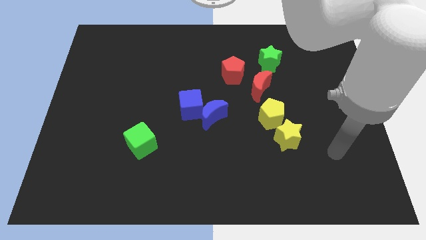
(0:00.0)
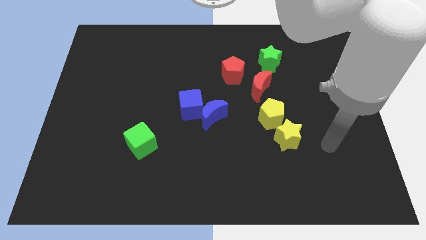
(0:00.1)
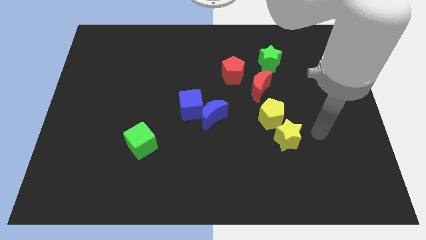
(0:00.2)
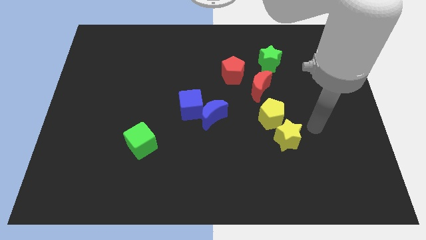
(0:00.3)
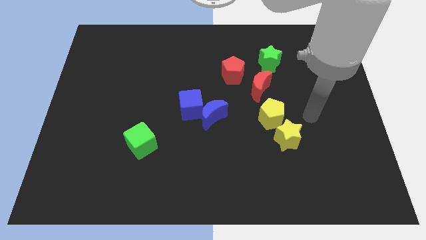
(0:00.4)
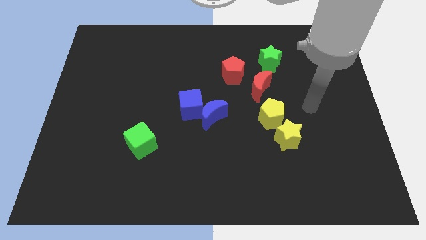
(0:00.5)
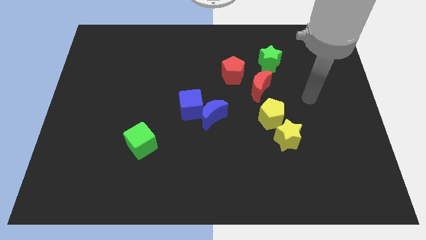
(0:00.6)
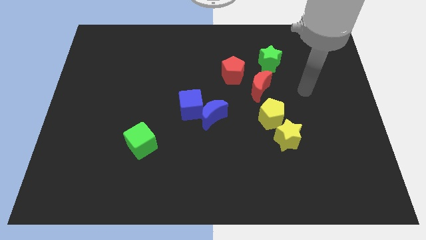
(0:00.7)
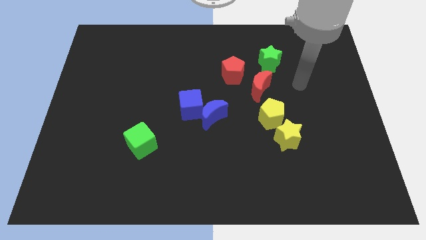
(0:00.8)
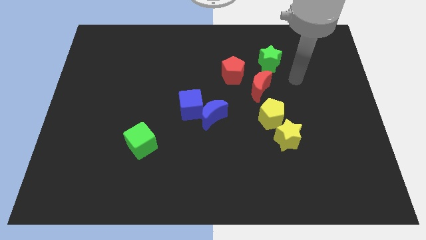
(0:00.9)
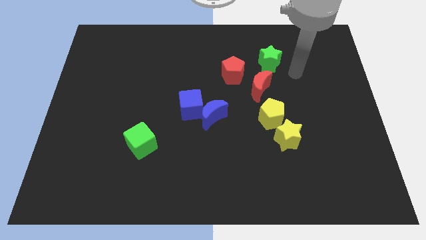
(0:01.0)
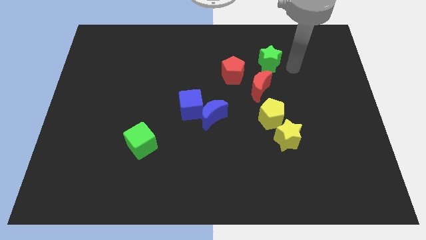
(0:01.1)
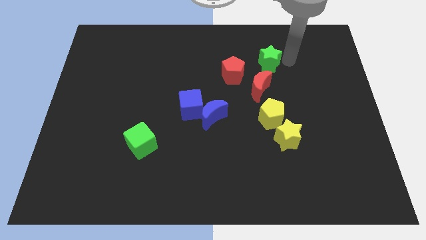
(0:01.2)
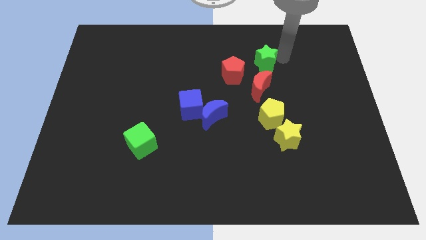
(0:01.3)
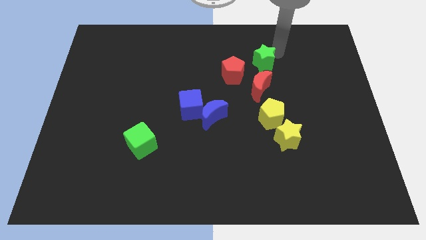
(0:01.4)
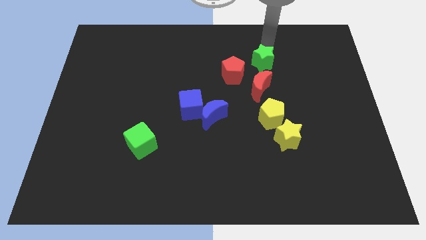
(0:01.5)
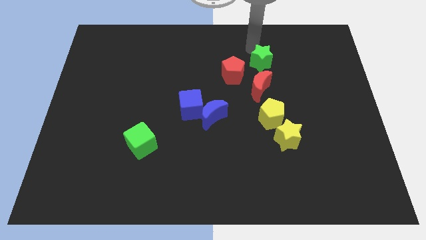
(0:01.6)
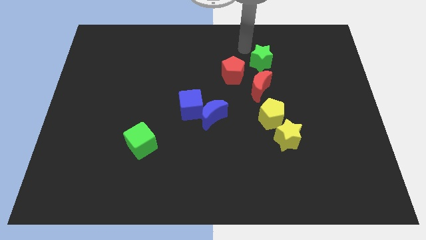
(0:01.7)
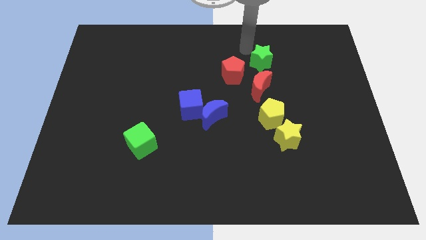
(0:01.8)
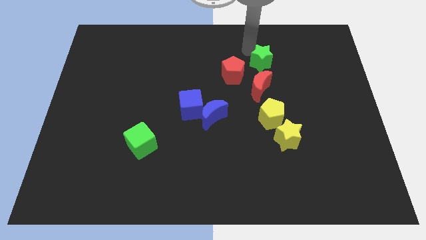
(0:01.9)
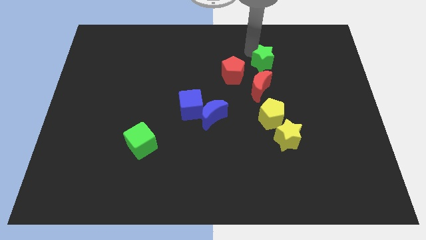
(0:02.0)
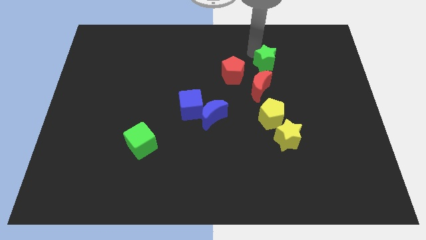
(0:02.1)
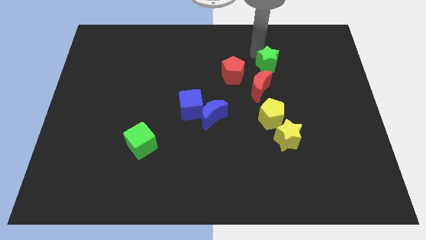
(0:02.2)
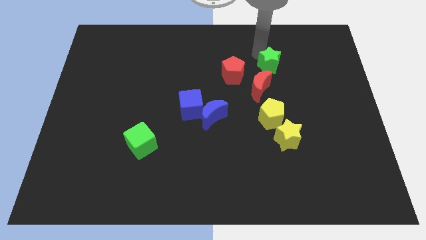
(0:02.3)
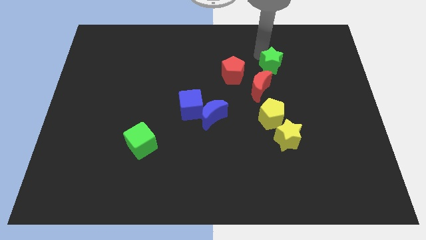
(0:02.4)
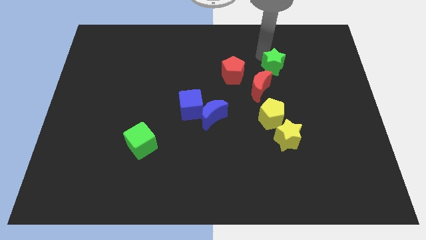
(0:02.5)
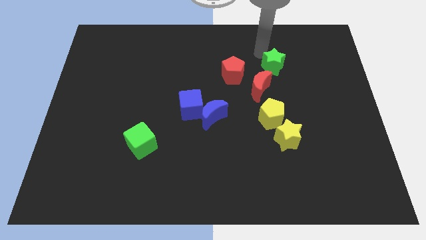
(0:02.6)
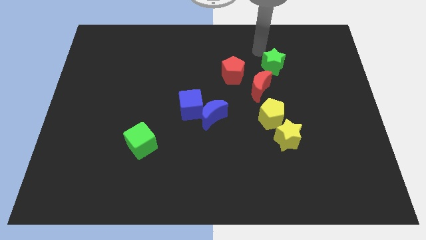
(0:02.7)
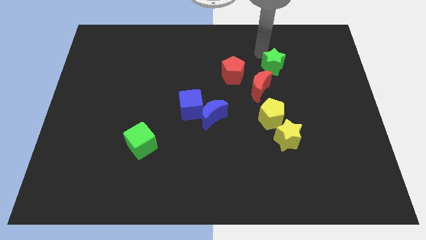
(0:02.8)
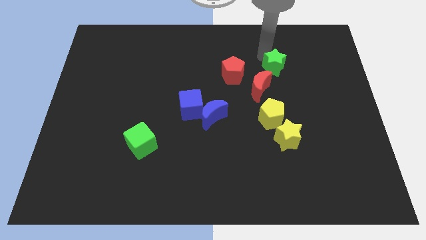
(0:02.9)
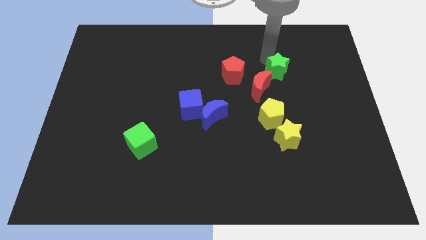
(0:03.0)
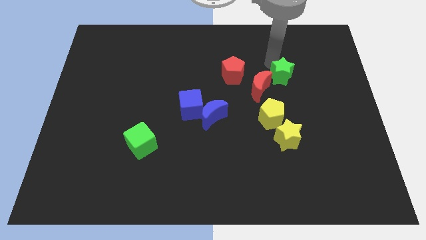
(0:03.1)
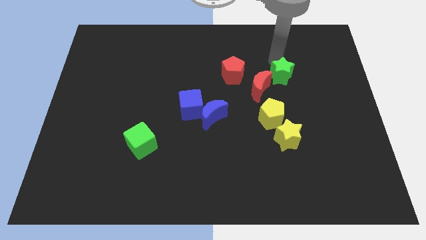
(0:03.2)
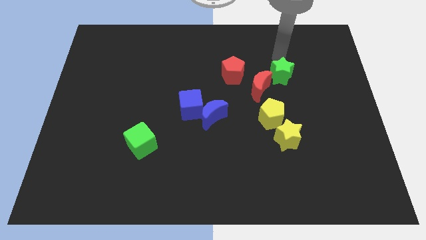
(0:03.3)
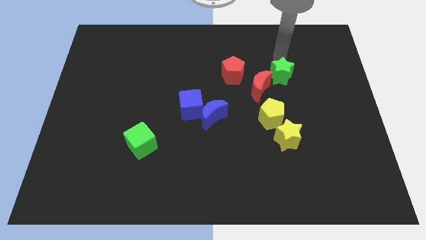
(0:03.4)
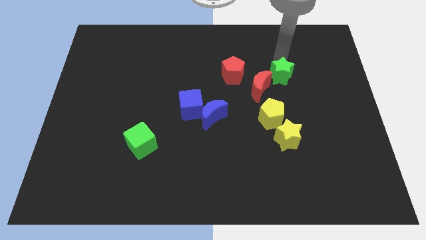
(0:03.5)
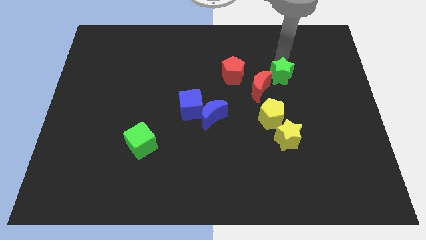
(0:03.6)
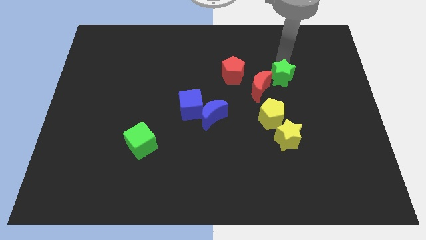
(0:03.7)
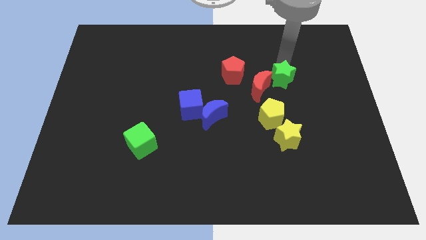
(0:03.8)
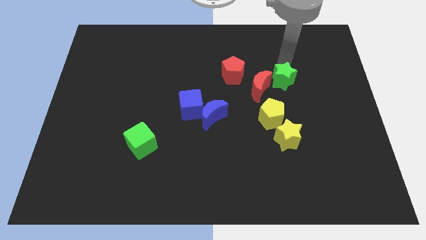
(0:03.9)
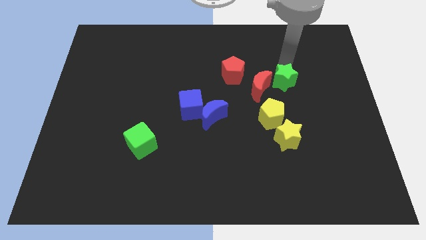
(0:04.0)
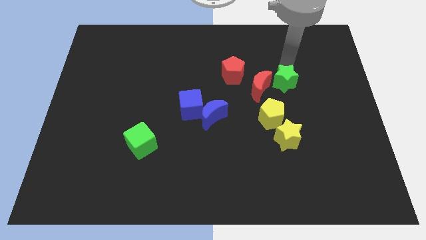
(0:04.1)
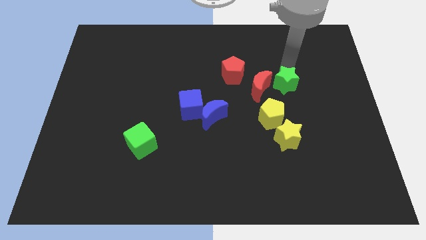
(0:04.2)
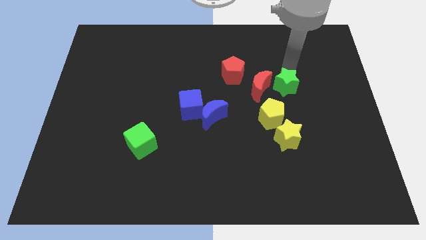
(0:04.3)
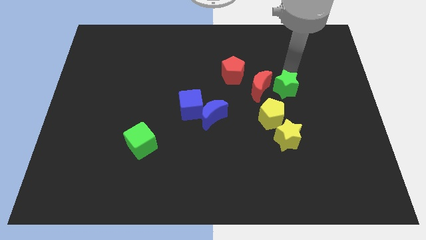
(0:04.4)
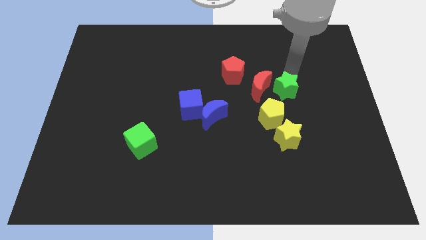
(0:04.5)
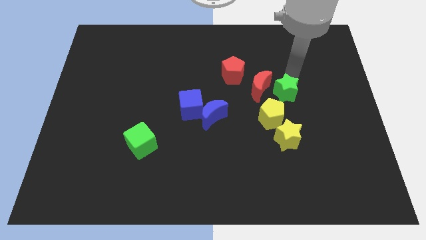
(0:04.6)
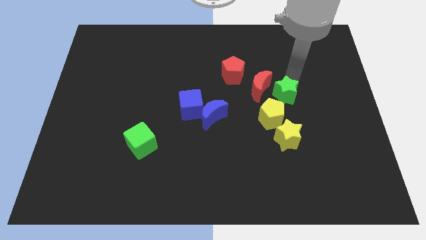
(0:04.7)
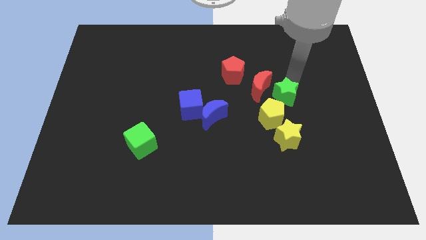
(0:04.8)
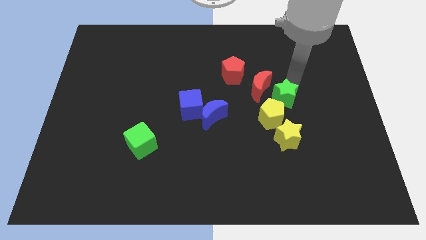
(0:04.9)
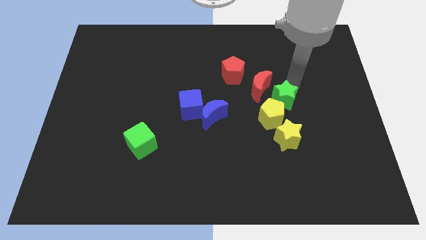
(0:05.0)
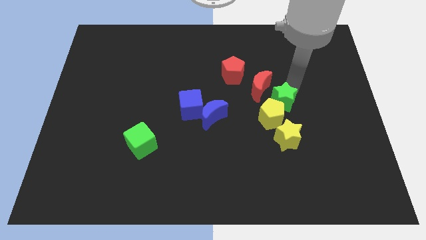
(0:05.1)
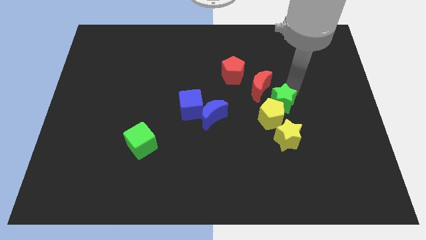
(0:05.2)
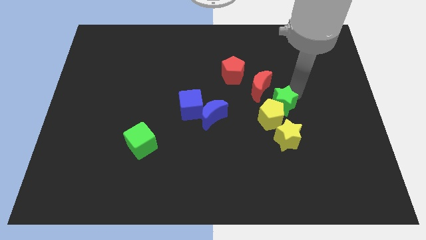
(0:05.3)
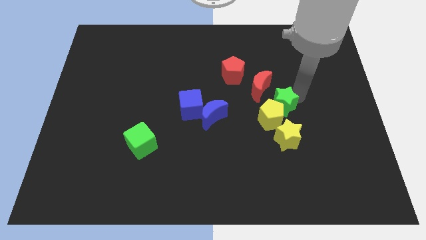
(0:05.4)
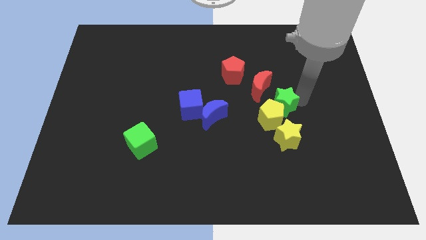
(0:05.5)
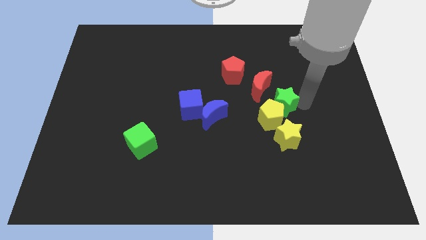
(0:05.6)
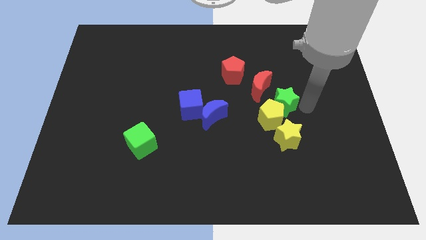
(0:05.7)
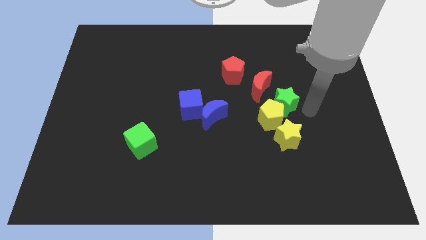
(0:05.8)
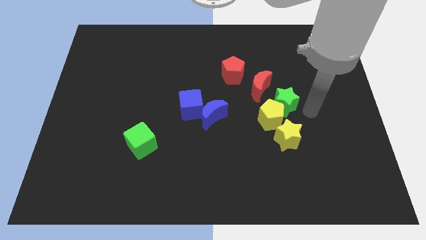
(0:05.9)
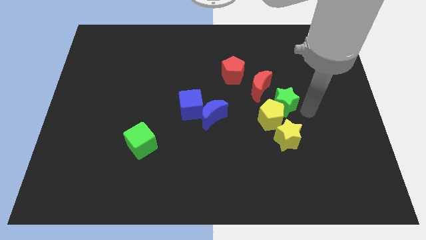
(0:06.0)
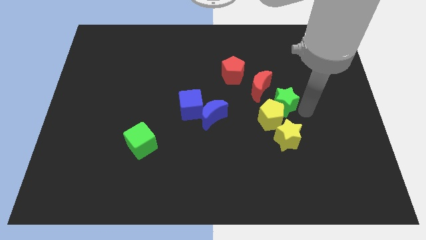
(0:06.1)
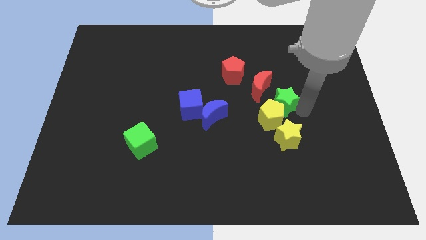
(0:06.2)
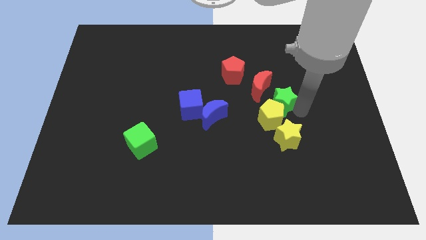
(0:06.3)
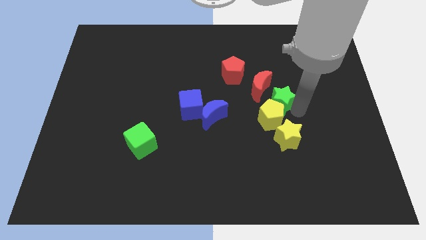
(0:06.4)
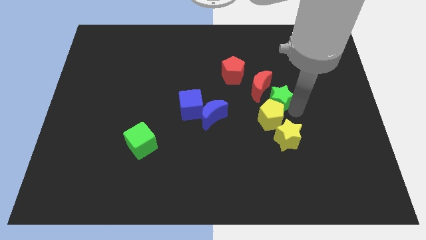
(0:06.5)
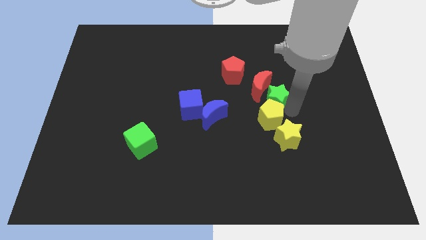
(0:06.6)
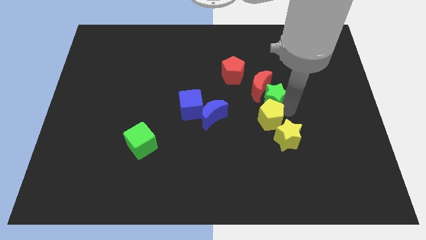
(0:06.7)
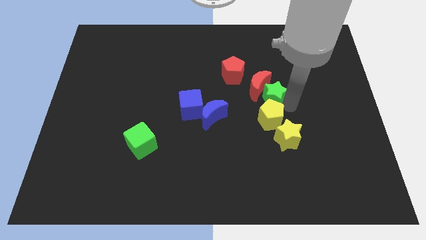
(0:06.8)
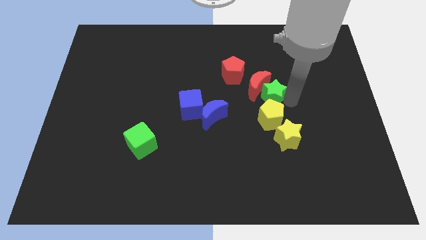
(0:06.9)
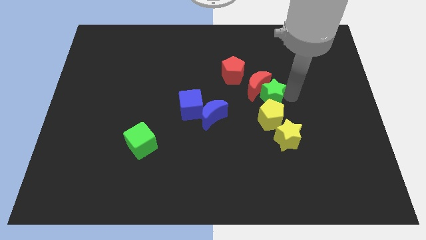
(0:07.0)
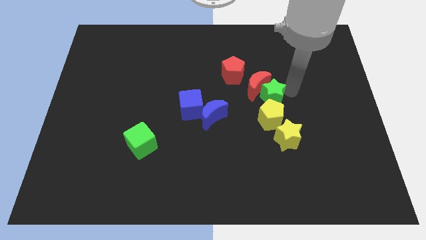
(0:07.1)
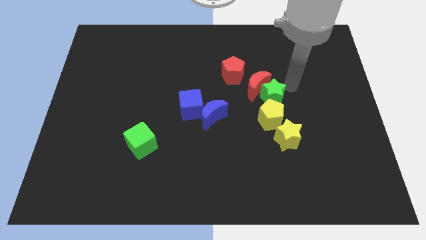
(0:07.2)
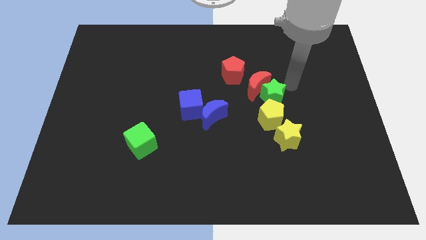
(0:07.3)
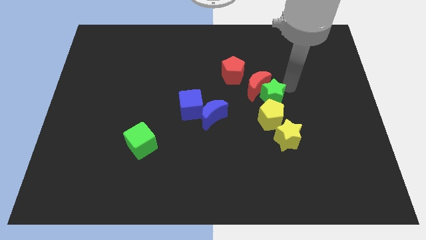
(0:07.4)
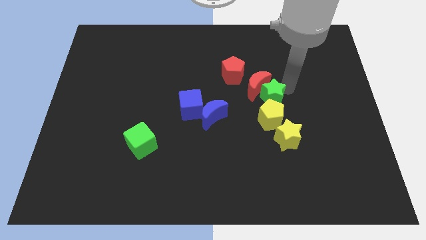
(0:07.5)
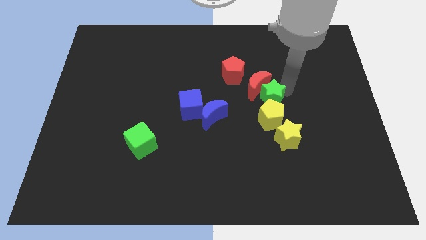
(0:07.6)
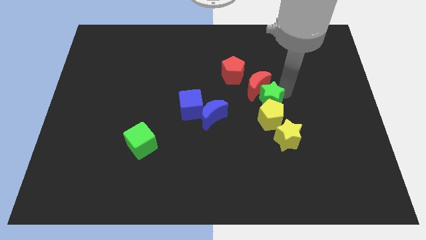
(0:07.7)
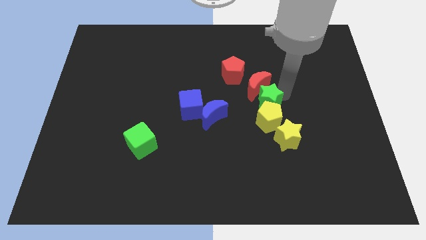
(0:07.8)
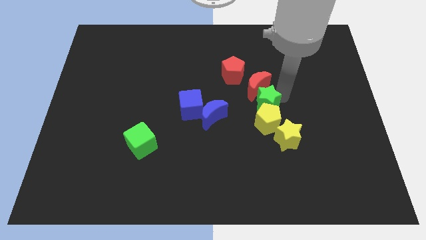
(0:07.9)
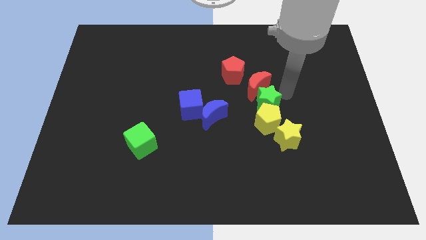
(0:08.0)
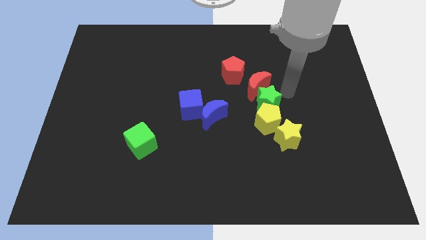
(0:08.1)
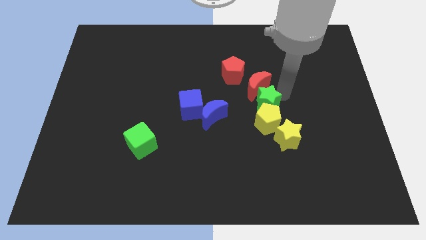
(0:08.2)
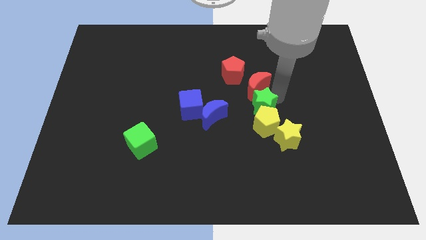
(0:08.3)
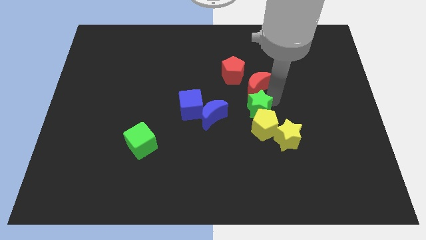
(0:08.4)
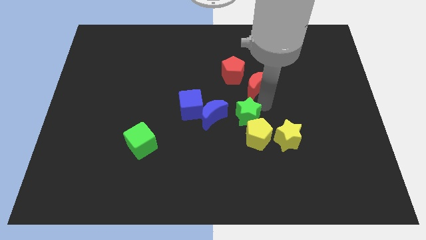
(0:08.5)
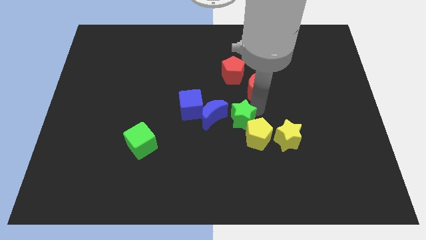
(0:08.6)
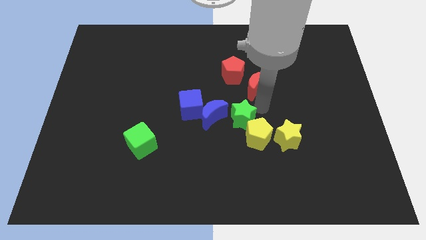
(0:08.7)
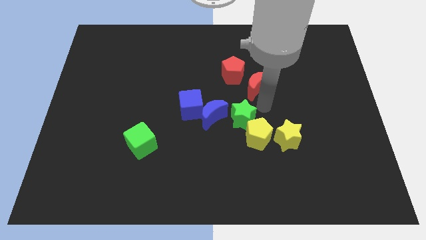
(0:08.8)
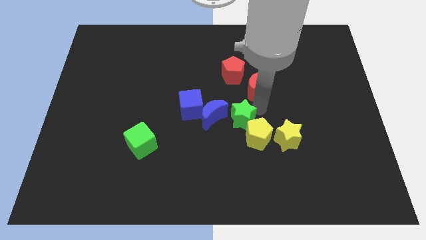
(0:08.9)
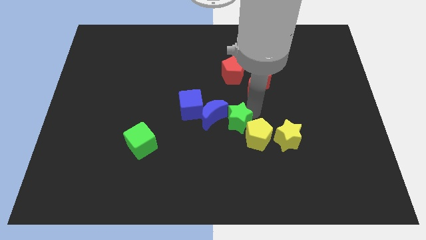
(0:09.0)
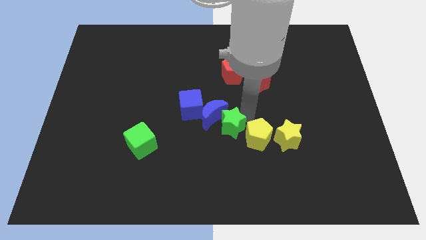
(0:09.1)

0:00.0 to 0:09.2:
slide the green star diagonally downwards and to the left
